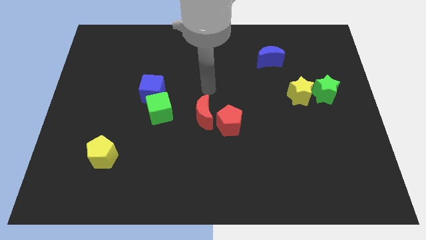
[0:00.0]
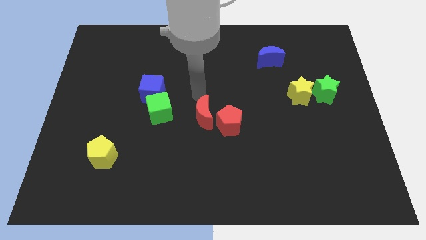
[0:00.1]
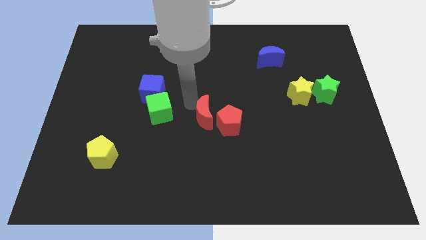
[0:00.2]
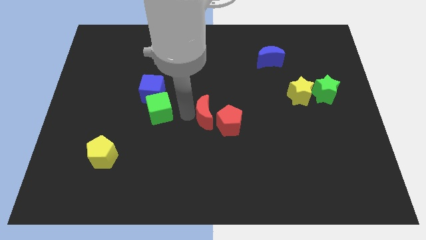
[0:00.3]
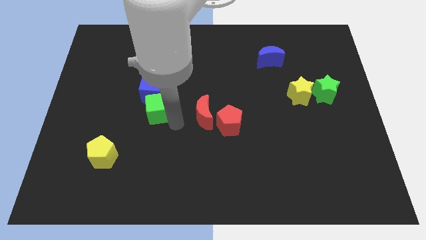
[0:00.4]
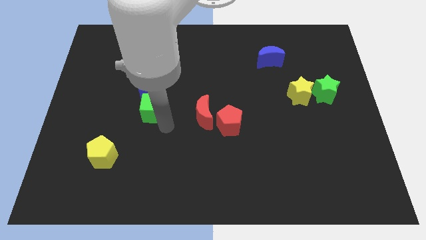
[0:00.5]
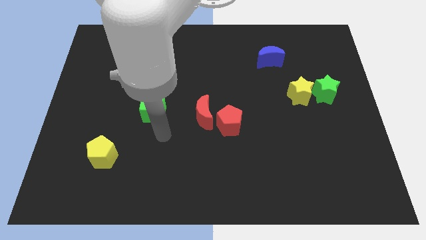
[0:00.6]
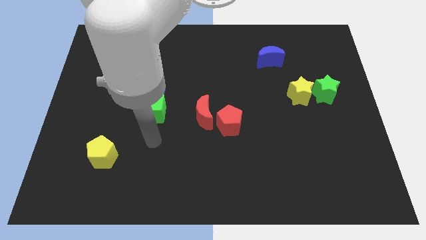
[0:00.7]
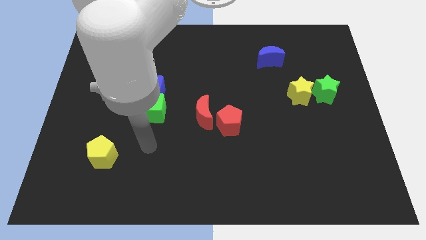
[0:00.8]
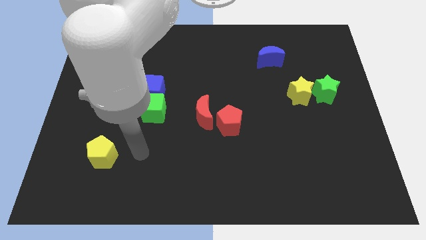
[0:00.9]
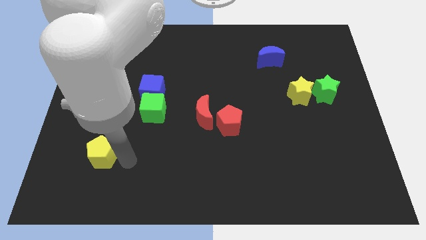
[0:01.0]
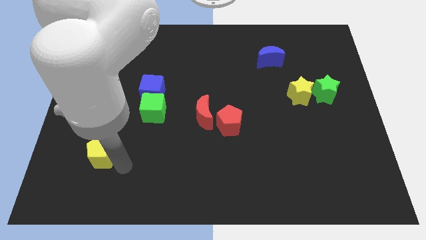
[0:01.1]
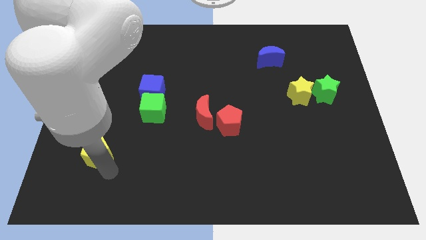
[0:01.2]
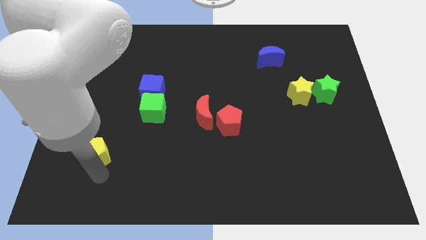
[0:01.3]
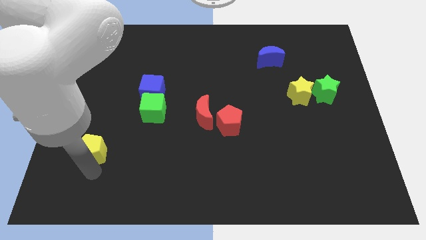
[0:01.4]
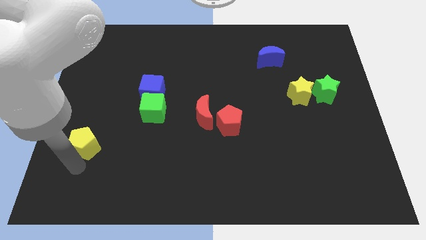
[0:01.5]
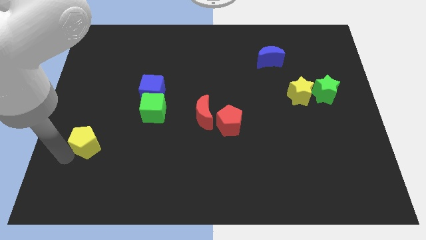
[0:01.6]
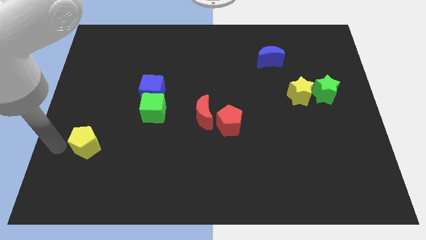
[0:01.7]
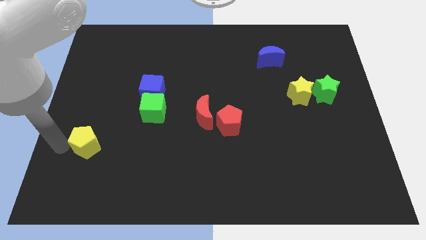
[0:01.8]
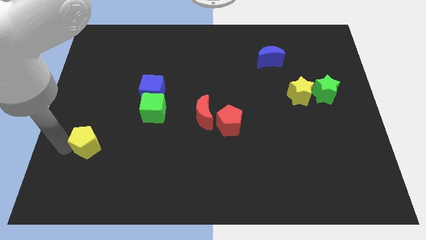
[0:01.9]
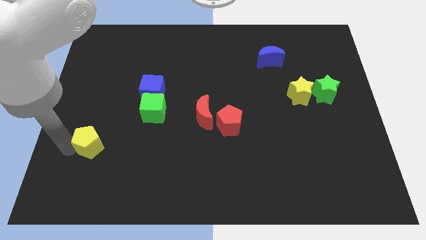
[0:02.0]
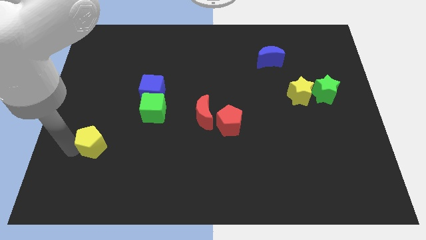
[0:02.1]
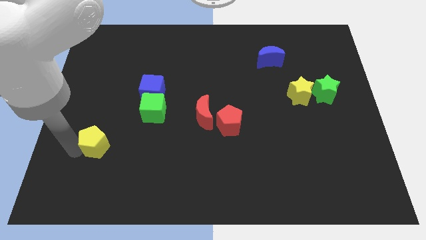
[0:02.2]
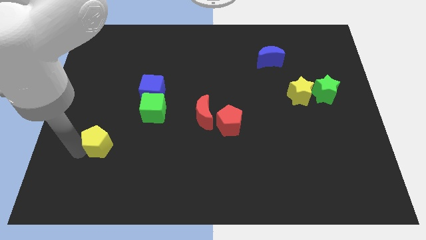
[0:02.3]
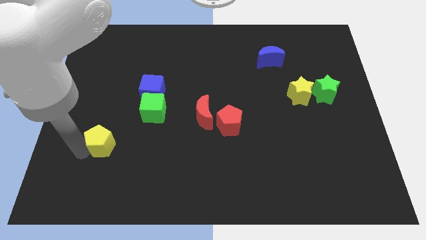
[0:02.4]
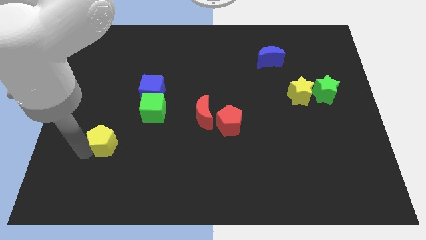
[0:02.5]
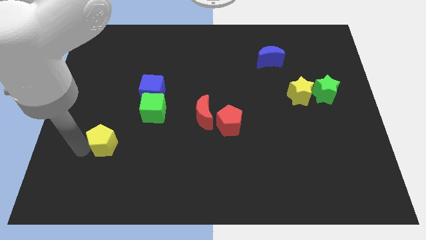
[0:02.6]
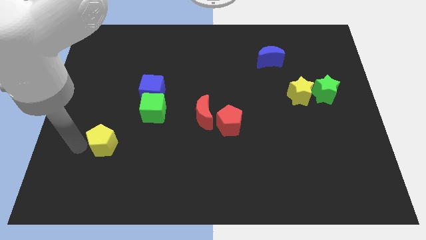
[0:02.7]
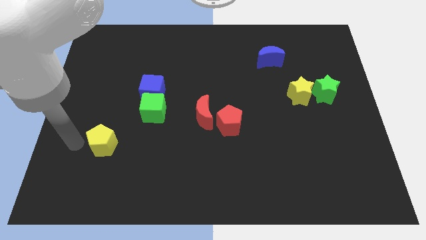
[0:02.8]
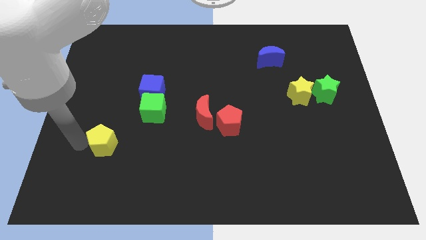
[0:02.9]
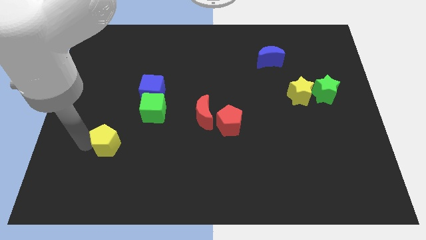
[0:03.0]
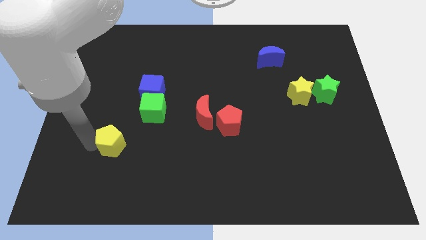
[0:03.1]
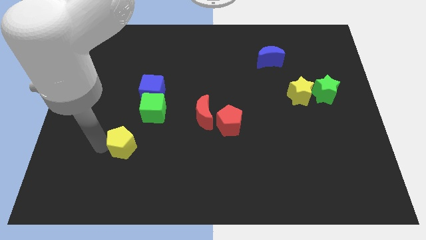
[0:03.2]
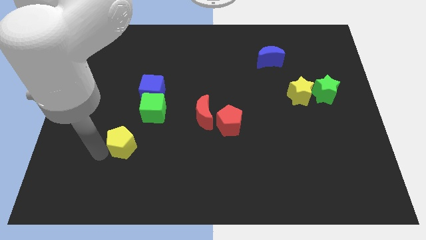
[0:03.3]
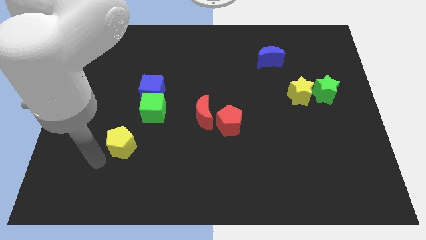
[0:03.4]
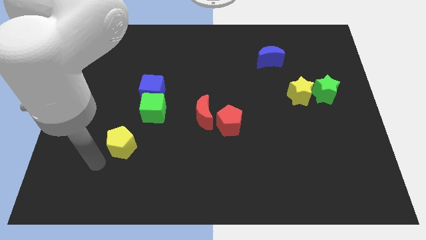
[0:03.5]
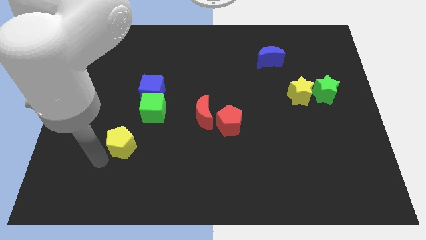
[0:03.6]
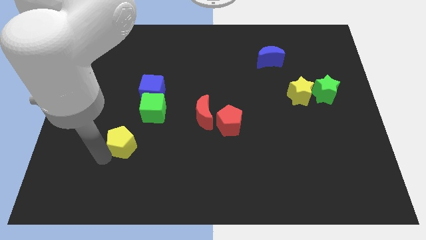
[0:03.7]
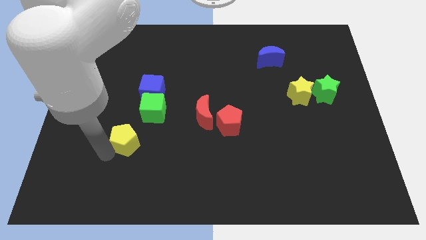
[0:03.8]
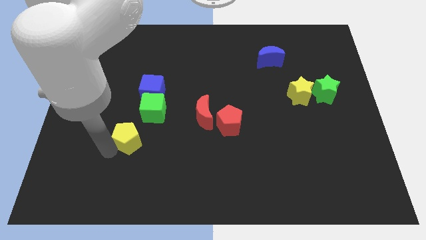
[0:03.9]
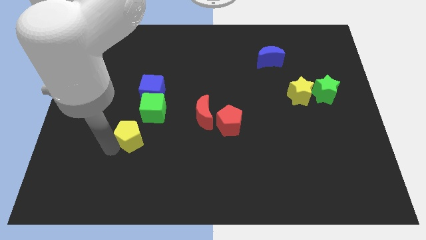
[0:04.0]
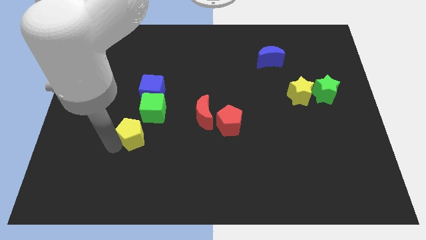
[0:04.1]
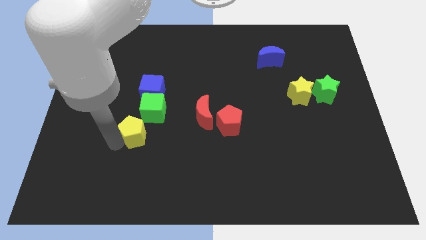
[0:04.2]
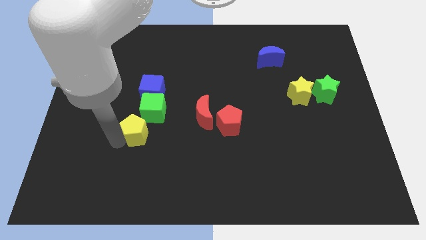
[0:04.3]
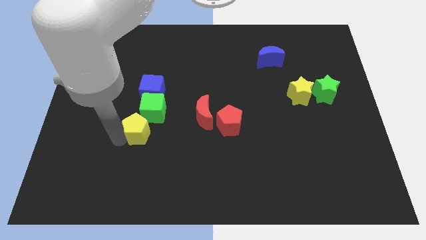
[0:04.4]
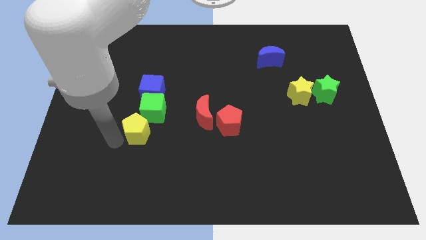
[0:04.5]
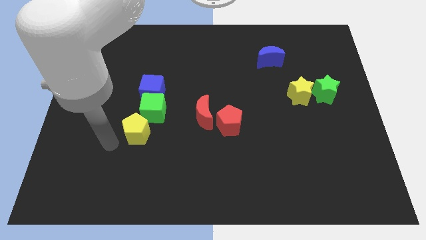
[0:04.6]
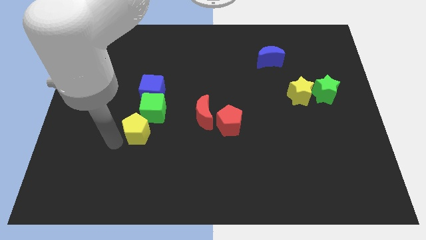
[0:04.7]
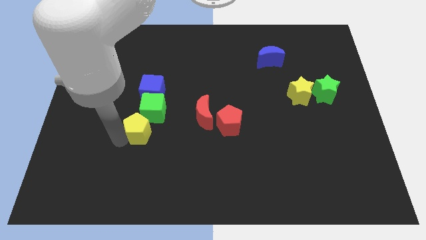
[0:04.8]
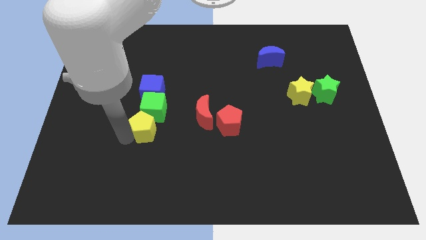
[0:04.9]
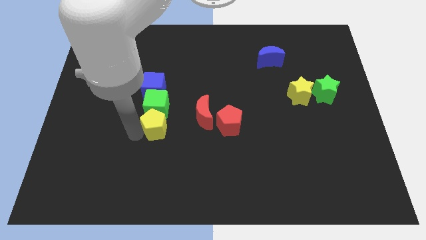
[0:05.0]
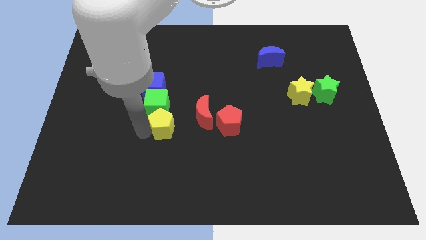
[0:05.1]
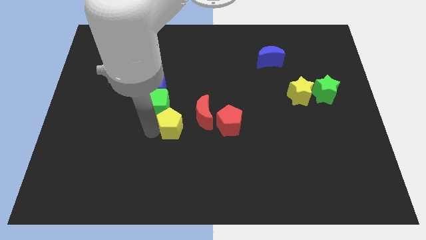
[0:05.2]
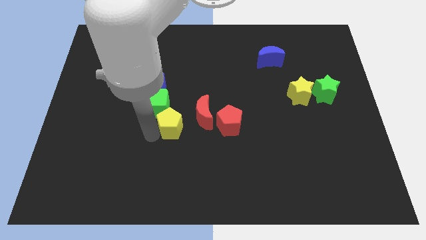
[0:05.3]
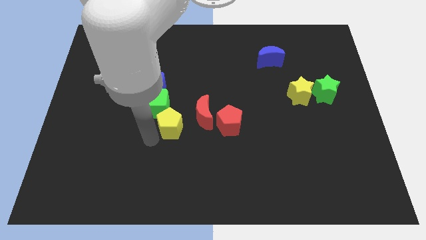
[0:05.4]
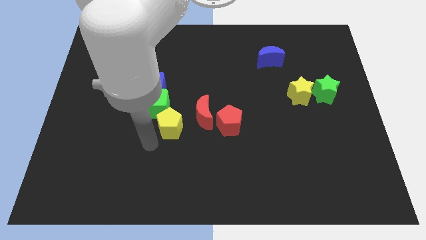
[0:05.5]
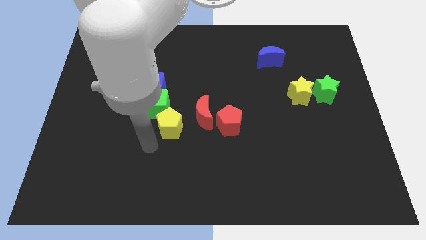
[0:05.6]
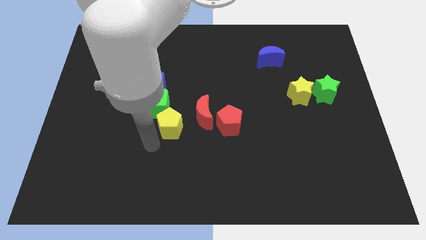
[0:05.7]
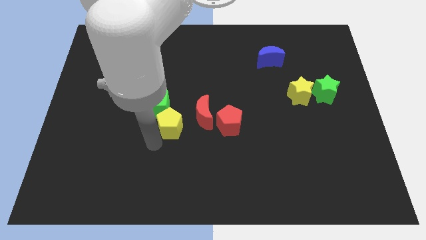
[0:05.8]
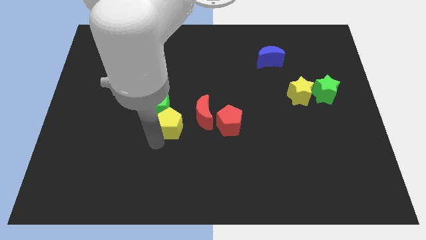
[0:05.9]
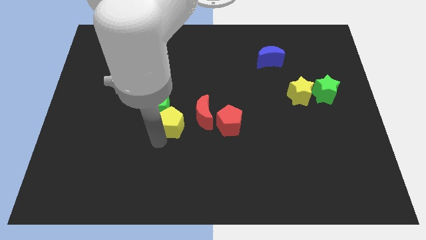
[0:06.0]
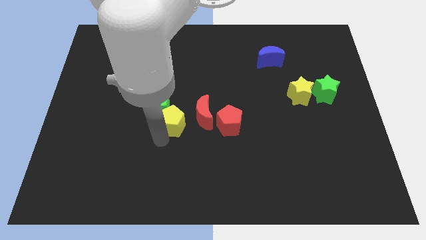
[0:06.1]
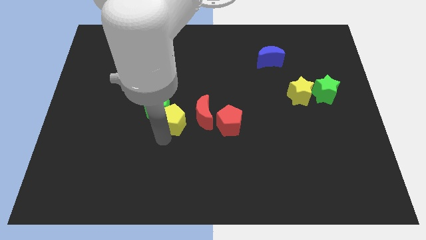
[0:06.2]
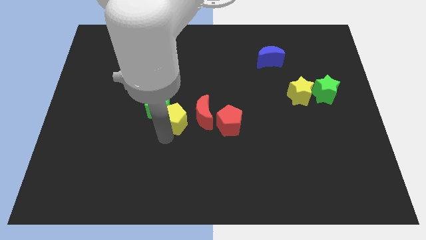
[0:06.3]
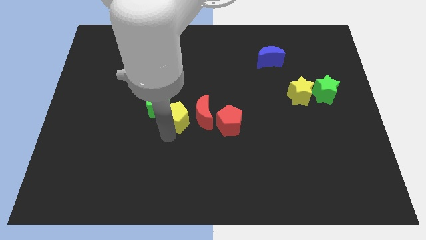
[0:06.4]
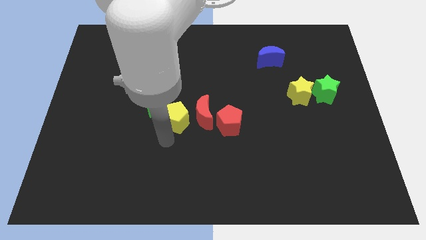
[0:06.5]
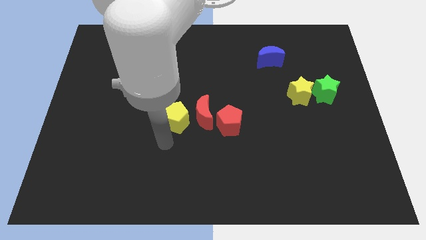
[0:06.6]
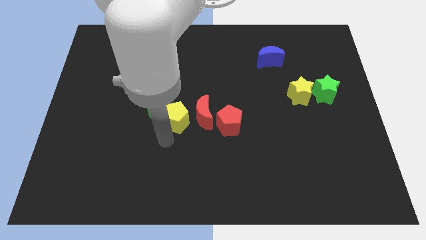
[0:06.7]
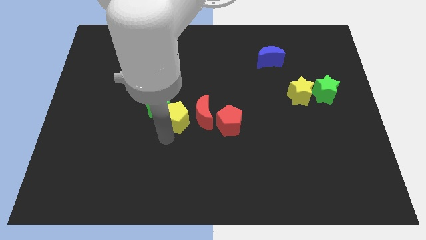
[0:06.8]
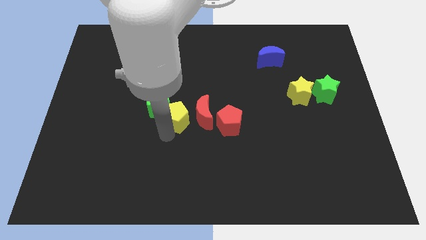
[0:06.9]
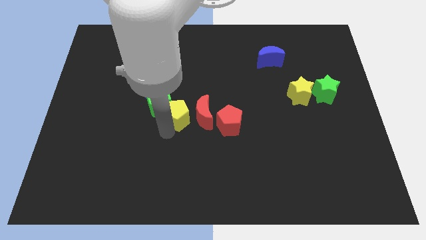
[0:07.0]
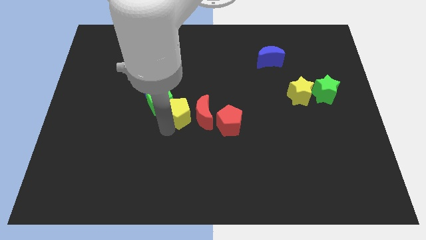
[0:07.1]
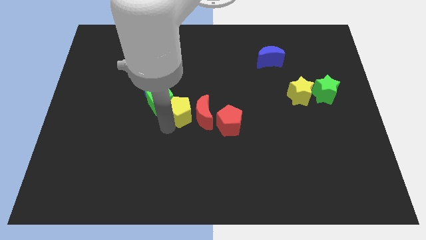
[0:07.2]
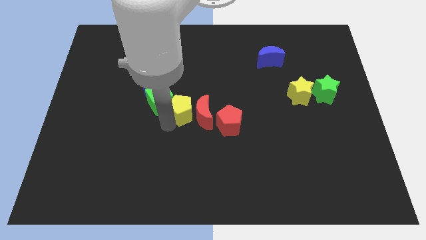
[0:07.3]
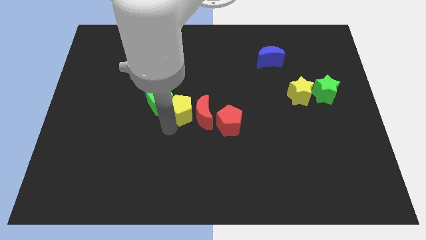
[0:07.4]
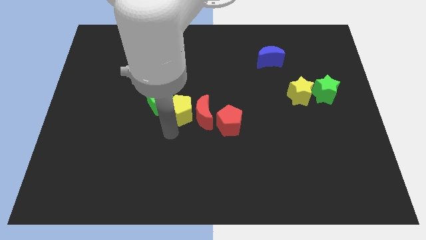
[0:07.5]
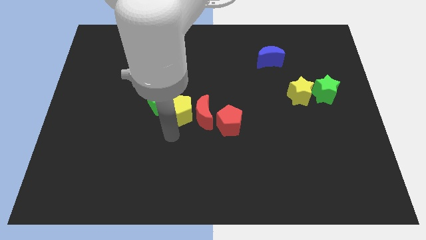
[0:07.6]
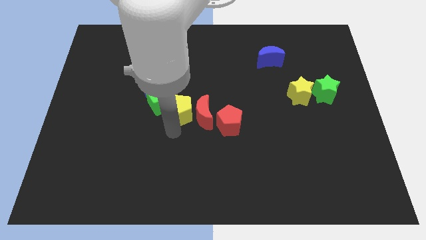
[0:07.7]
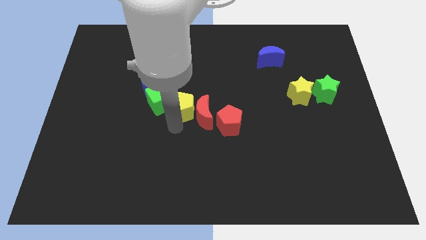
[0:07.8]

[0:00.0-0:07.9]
push the yellow pentagon diagonally upwards and right
